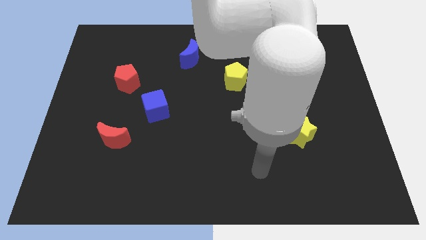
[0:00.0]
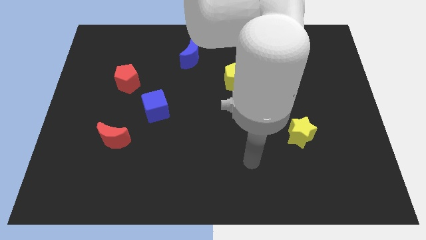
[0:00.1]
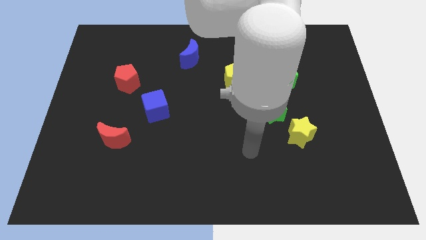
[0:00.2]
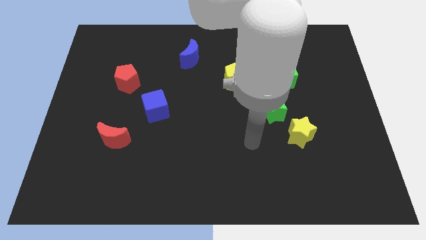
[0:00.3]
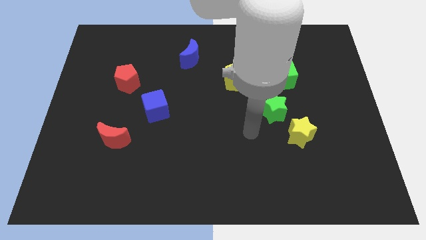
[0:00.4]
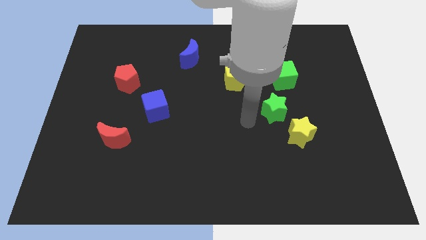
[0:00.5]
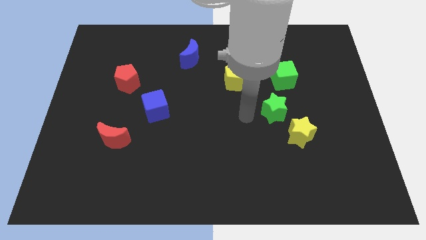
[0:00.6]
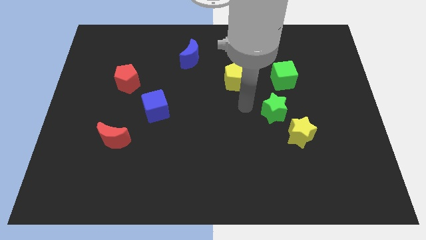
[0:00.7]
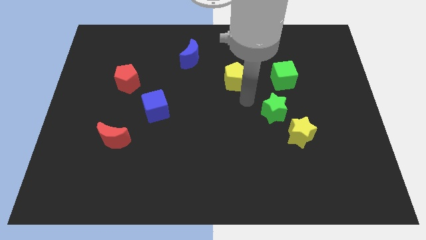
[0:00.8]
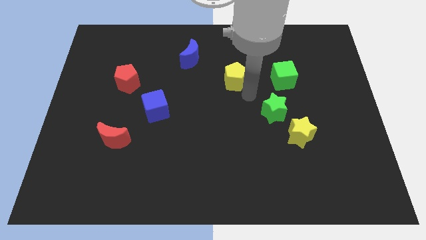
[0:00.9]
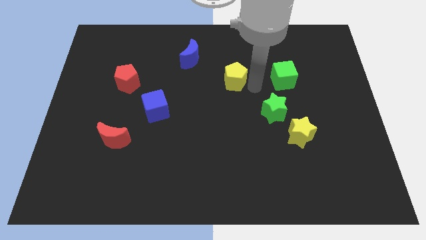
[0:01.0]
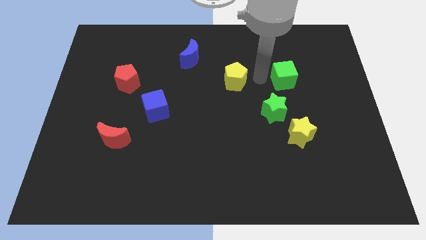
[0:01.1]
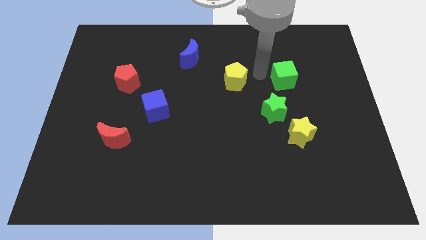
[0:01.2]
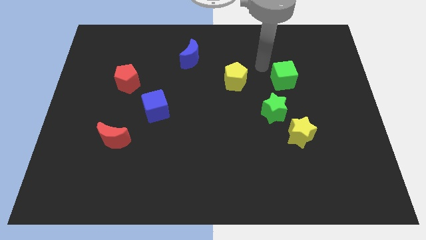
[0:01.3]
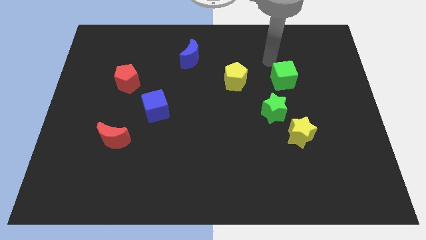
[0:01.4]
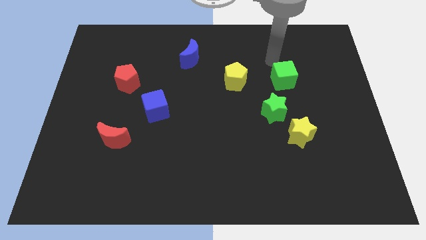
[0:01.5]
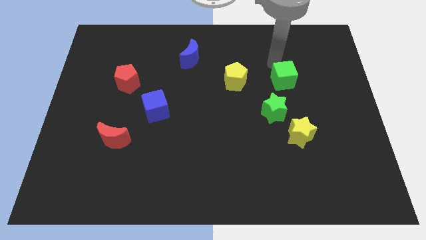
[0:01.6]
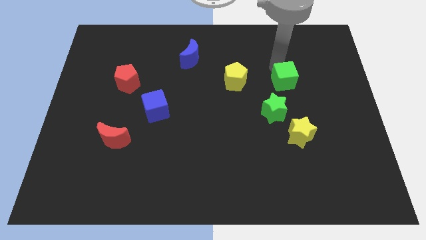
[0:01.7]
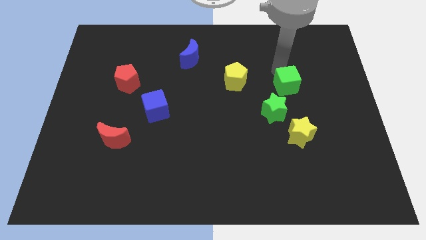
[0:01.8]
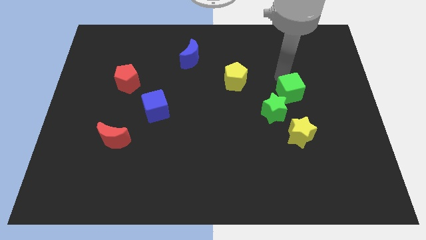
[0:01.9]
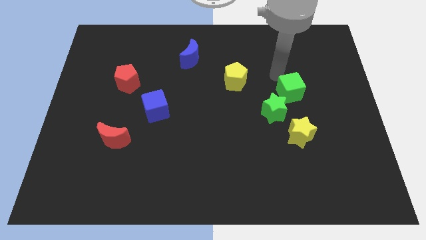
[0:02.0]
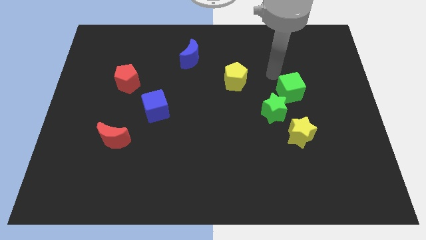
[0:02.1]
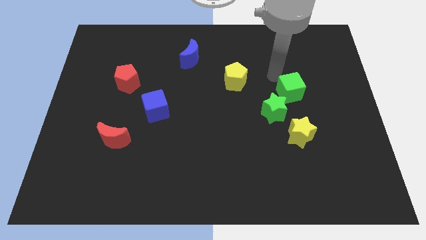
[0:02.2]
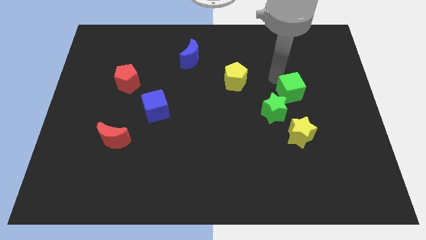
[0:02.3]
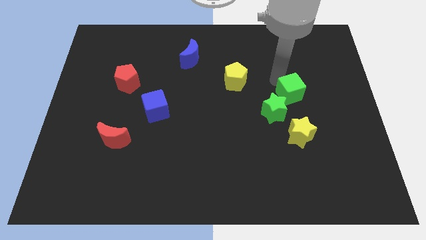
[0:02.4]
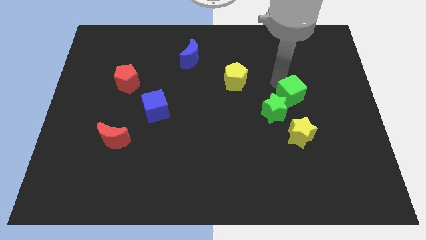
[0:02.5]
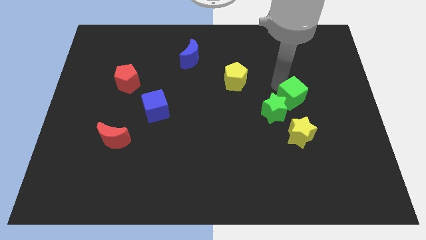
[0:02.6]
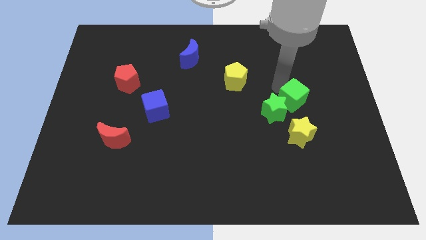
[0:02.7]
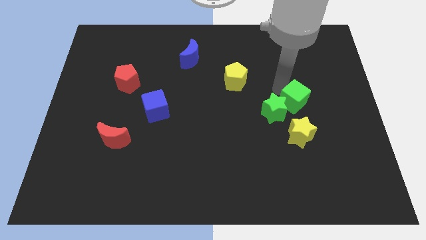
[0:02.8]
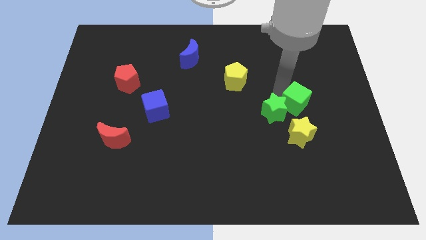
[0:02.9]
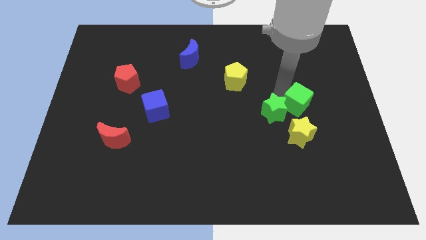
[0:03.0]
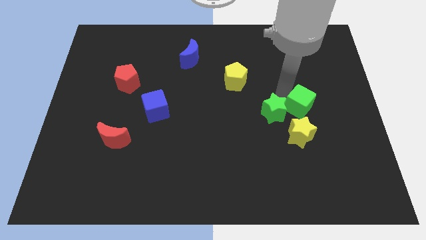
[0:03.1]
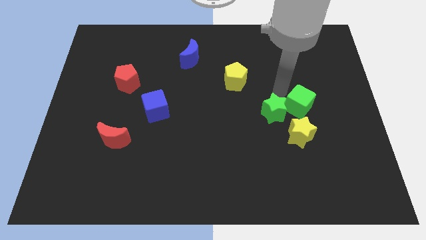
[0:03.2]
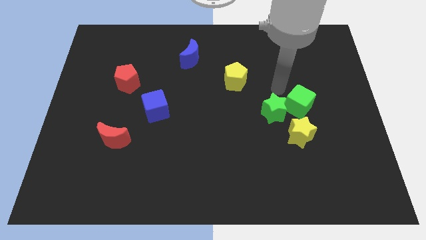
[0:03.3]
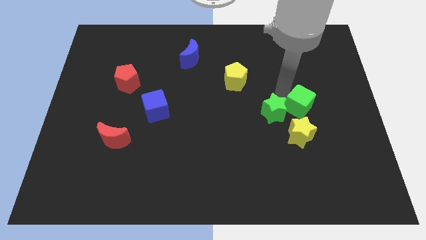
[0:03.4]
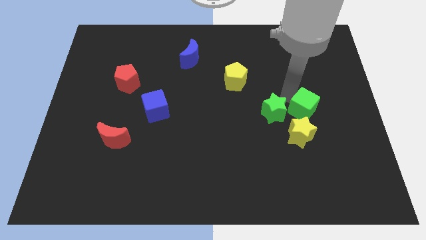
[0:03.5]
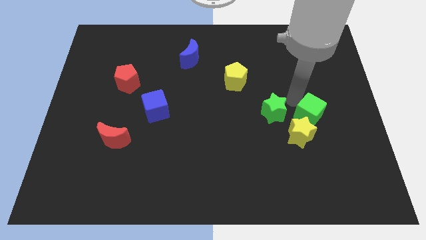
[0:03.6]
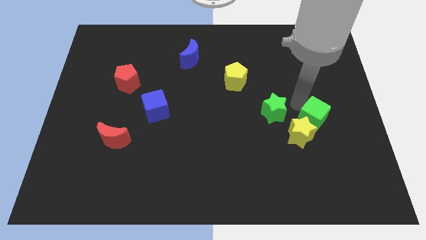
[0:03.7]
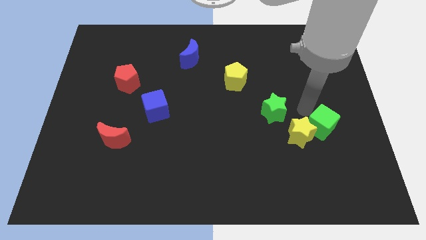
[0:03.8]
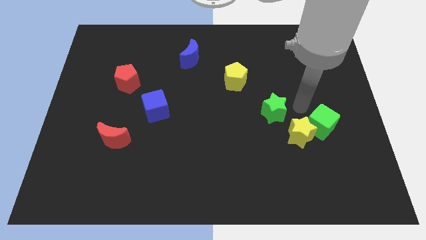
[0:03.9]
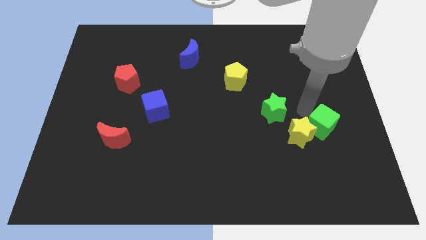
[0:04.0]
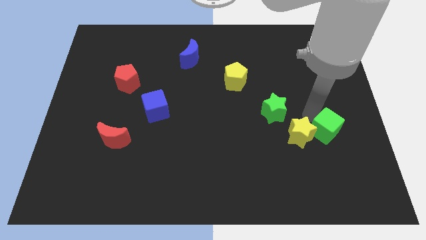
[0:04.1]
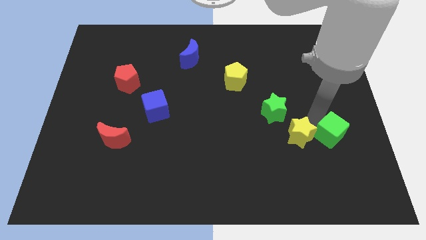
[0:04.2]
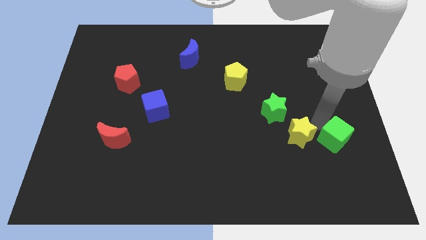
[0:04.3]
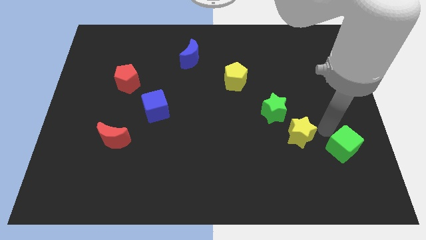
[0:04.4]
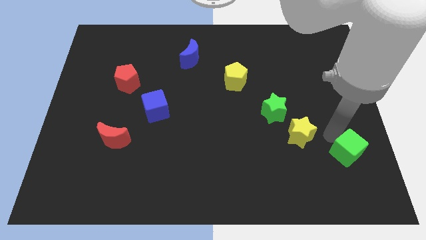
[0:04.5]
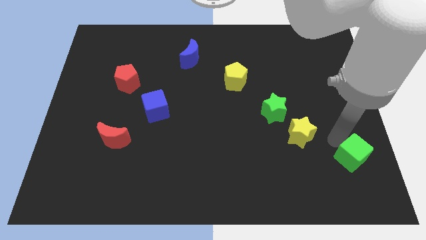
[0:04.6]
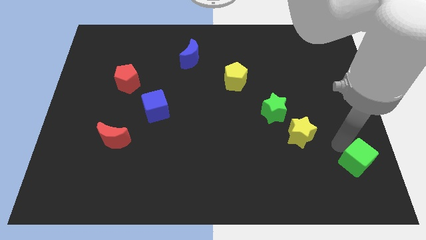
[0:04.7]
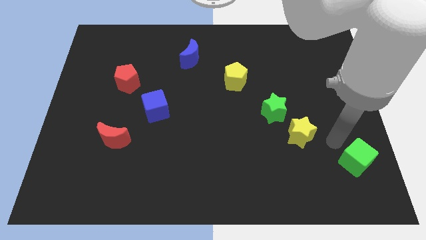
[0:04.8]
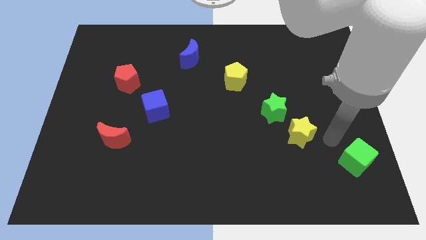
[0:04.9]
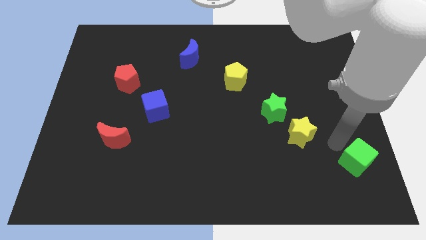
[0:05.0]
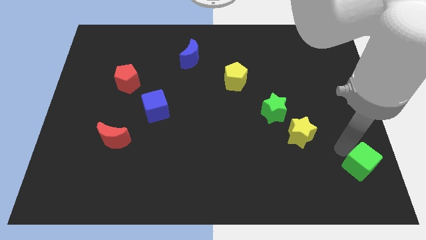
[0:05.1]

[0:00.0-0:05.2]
put the green cube to the bottom right of the board

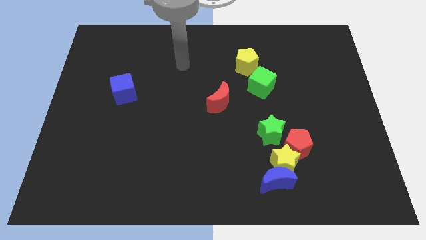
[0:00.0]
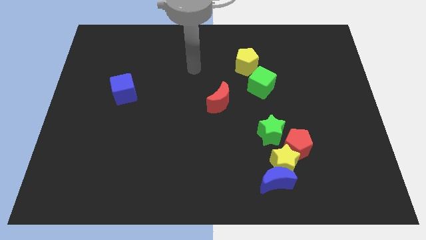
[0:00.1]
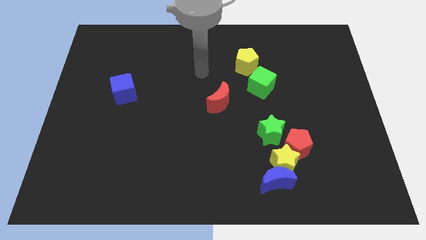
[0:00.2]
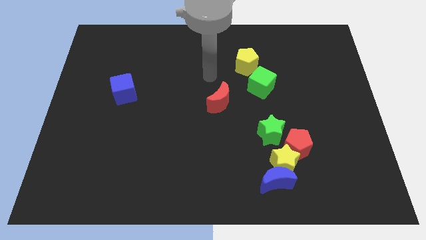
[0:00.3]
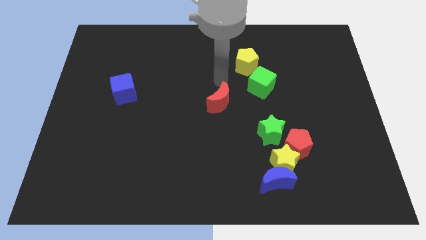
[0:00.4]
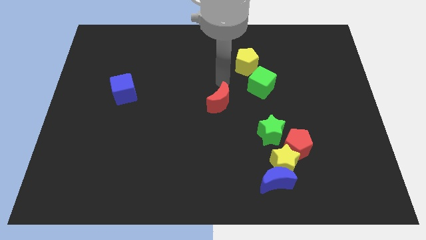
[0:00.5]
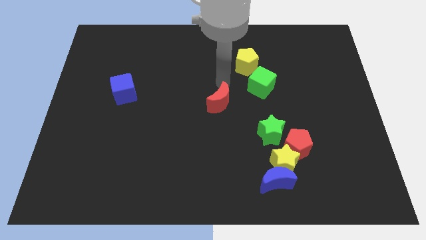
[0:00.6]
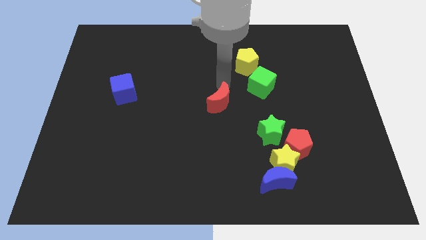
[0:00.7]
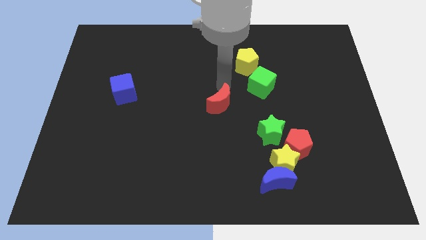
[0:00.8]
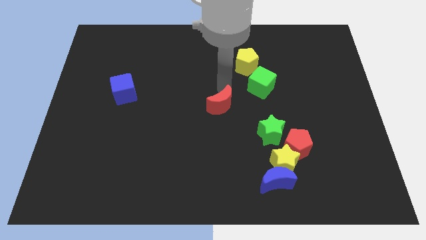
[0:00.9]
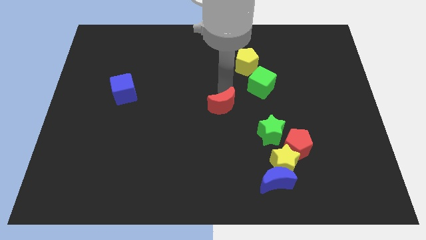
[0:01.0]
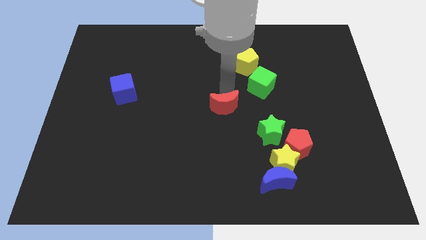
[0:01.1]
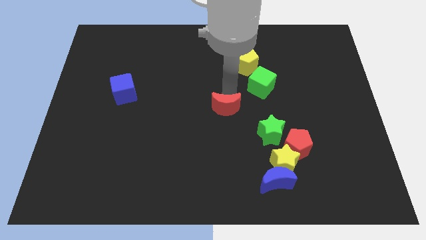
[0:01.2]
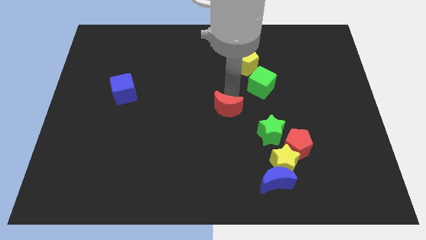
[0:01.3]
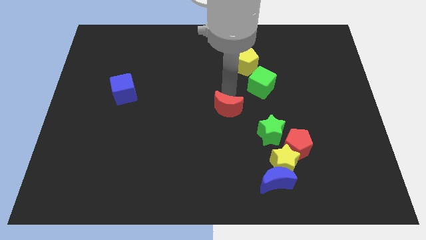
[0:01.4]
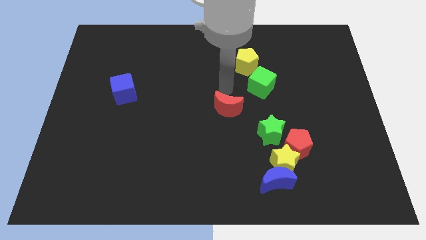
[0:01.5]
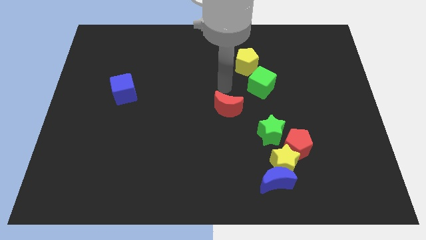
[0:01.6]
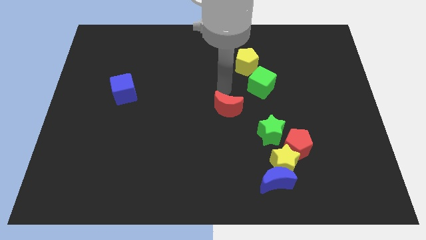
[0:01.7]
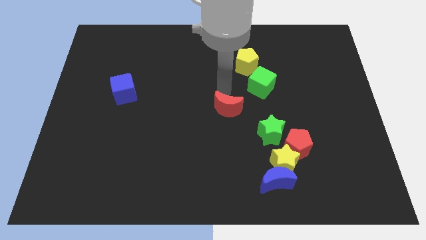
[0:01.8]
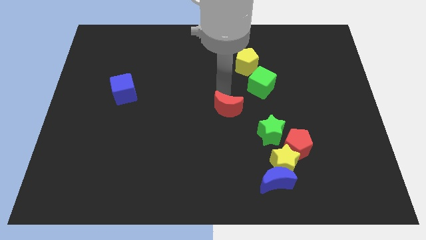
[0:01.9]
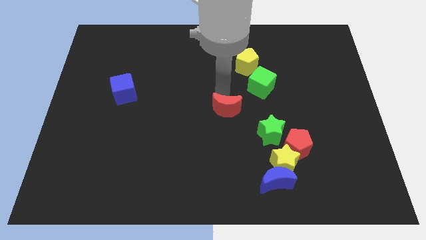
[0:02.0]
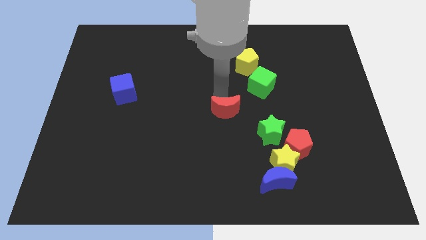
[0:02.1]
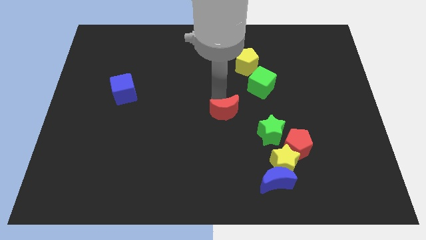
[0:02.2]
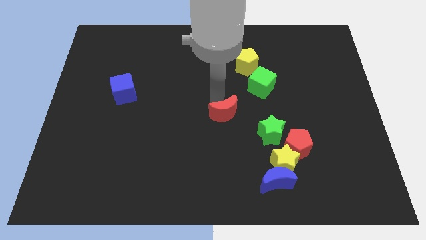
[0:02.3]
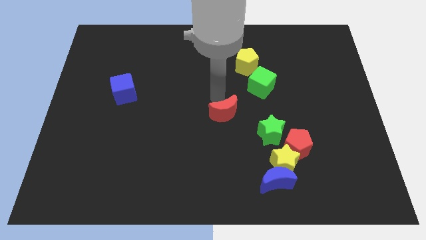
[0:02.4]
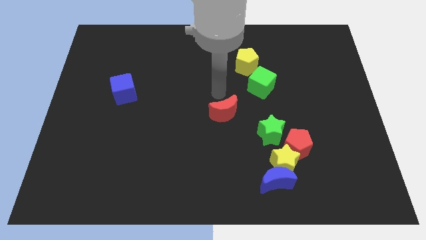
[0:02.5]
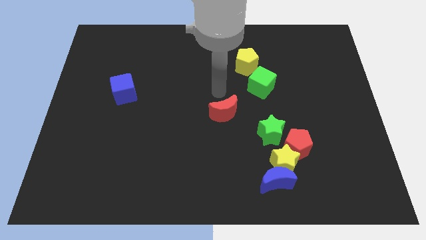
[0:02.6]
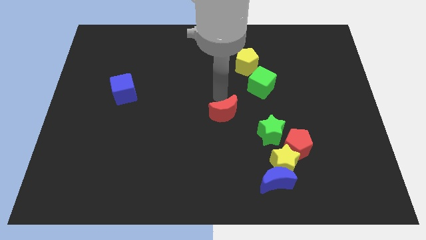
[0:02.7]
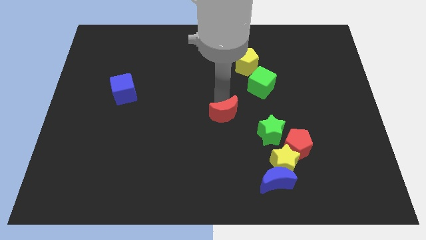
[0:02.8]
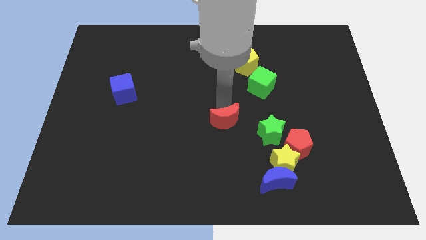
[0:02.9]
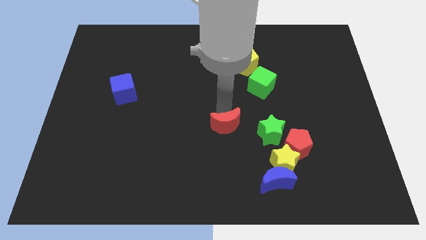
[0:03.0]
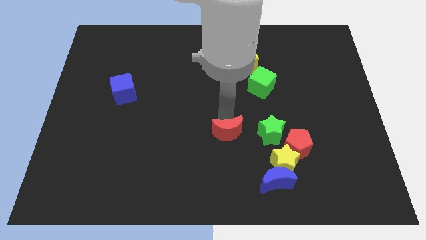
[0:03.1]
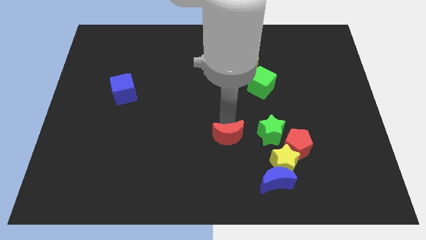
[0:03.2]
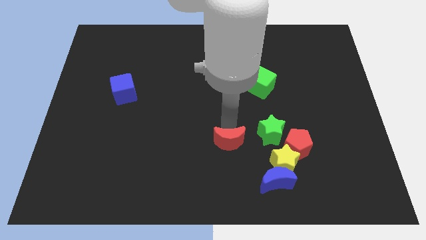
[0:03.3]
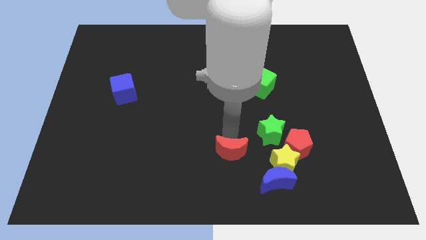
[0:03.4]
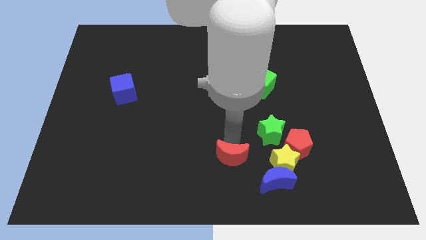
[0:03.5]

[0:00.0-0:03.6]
put the red moon to the bottom
